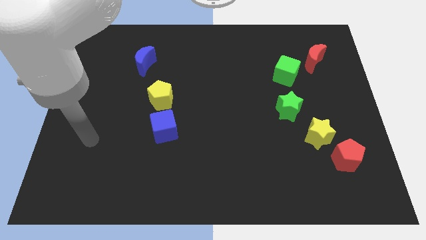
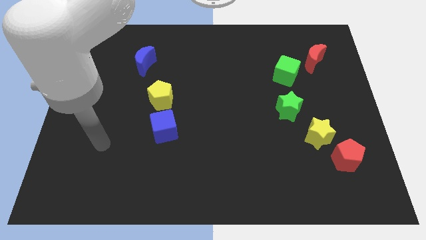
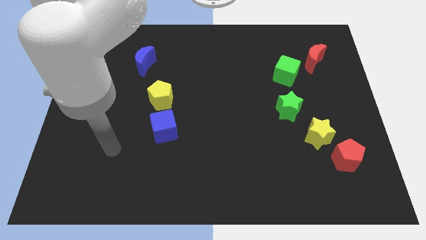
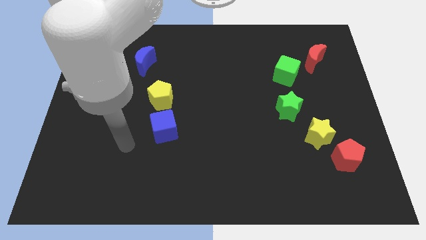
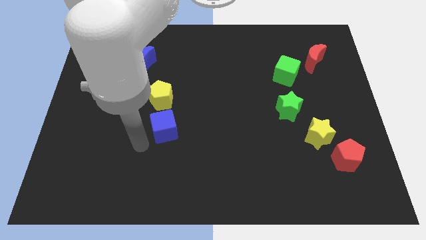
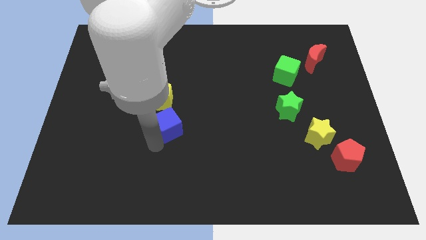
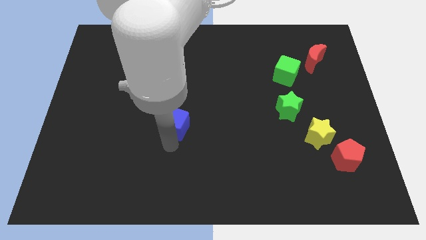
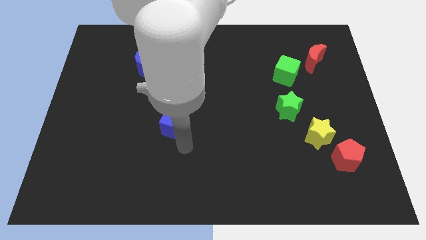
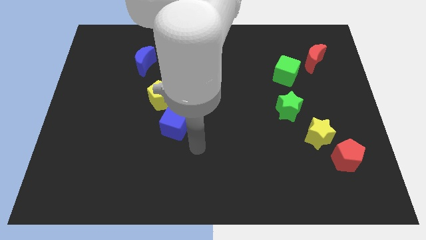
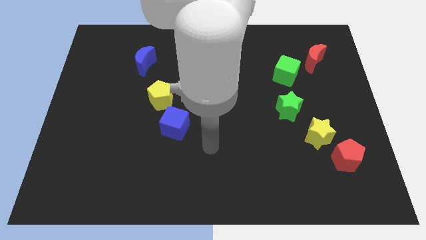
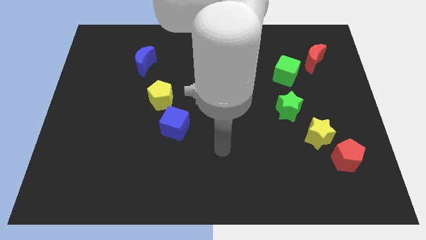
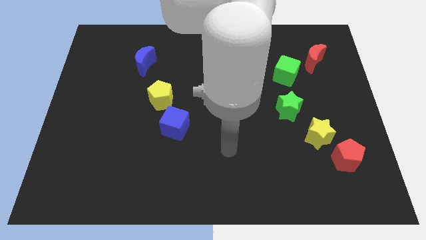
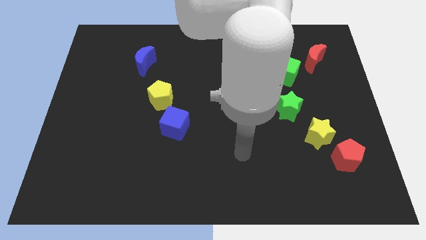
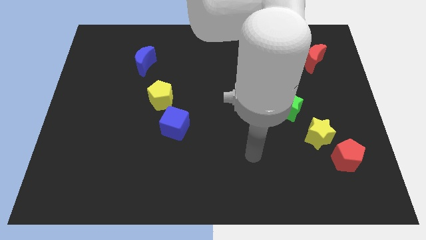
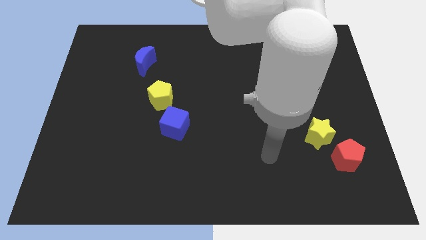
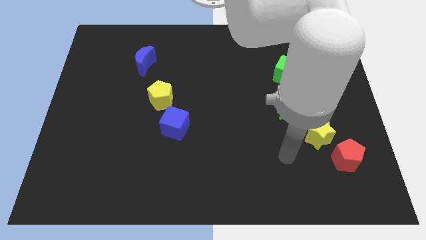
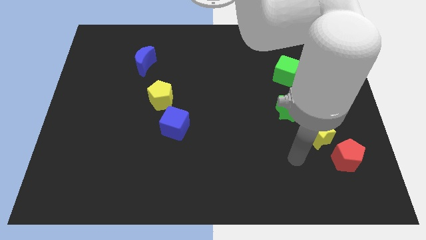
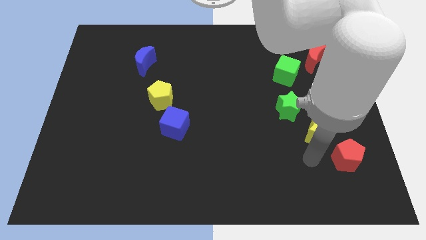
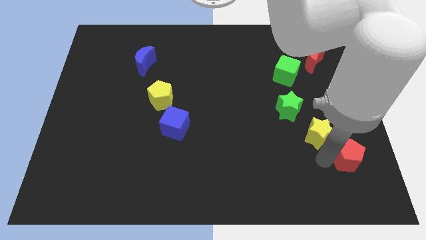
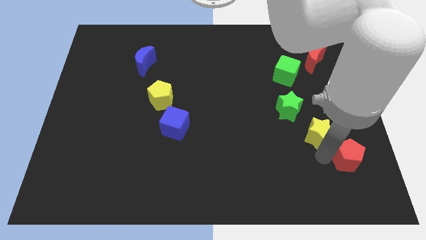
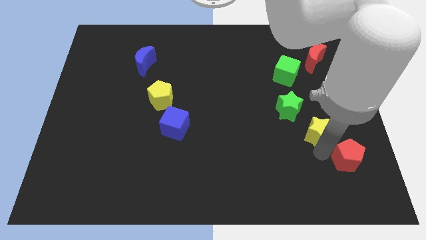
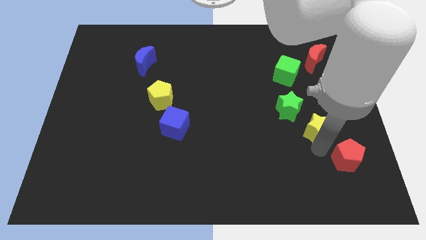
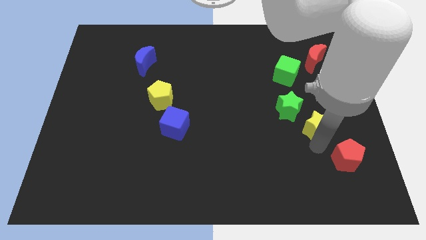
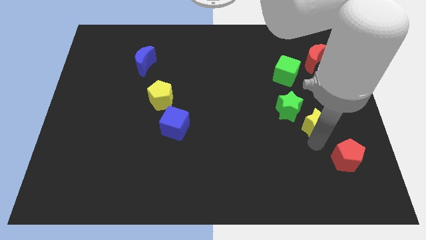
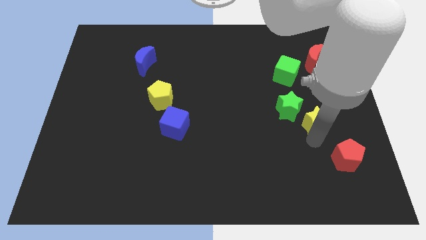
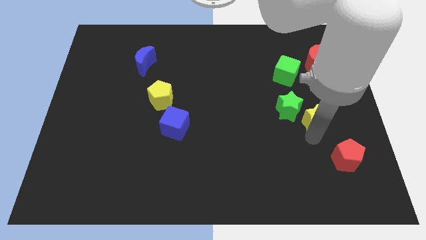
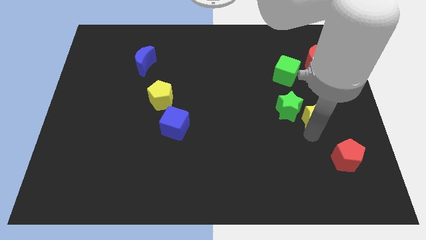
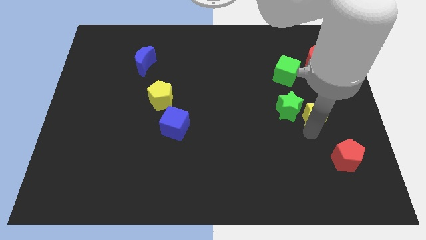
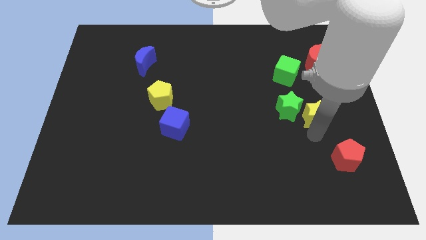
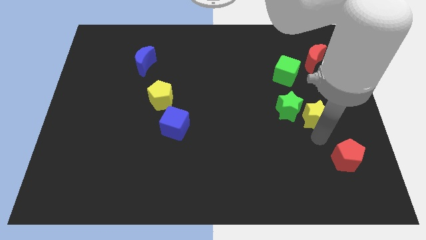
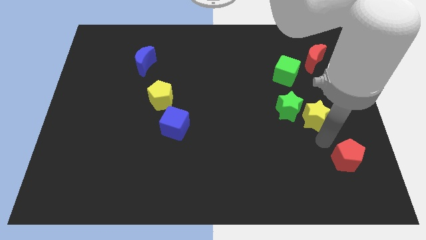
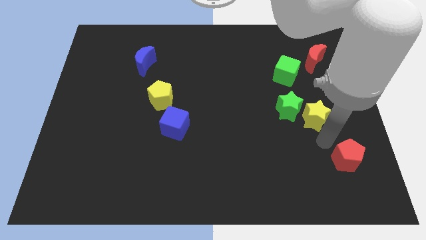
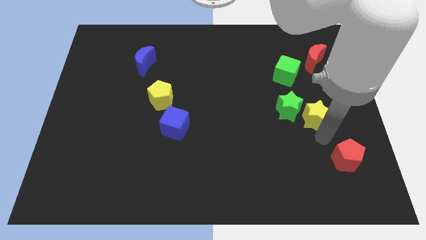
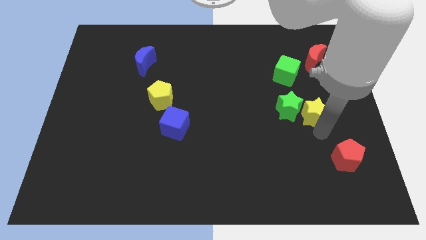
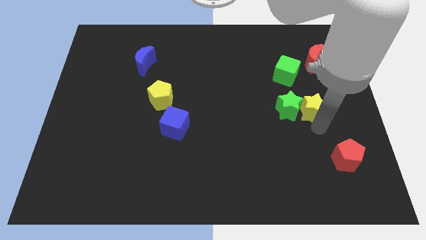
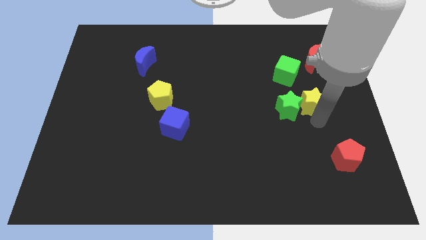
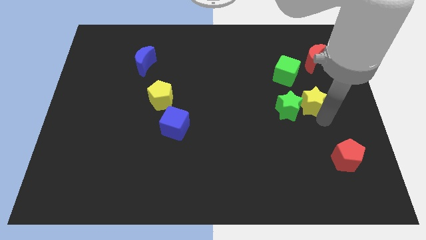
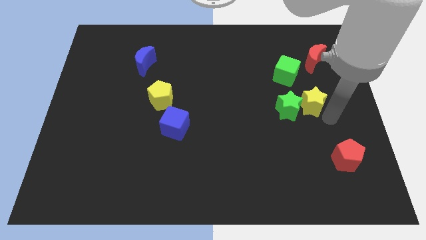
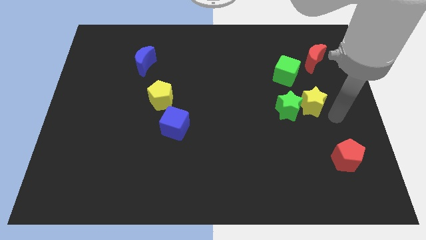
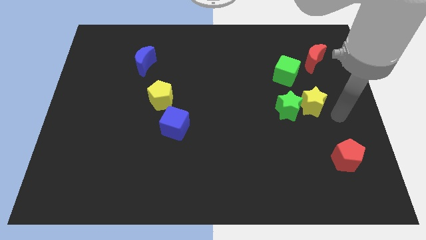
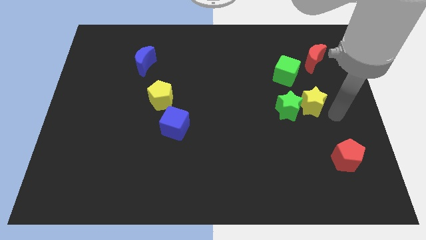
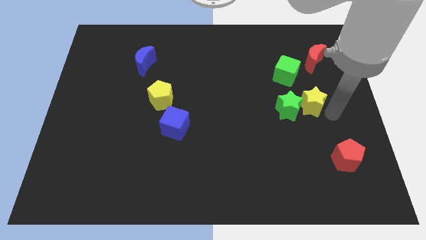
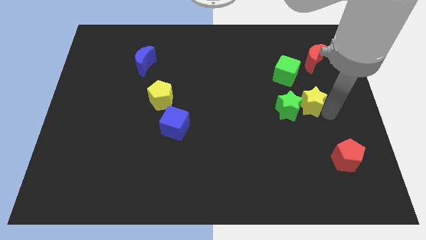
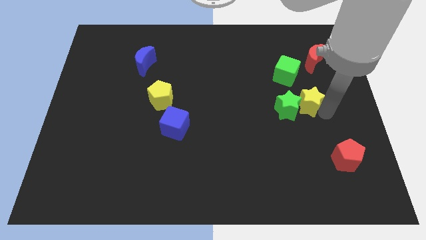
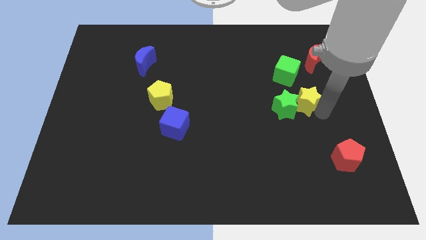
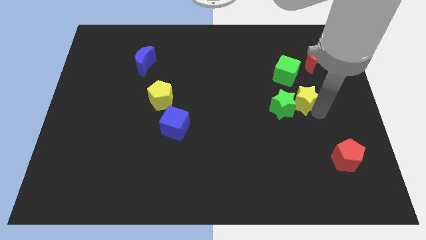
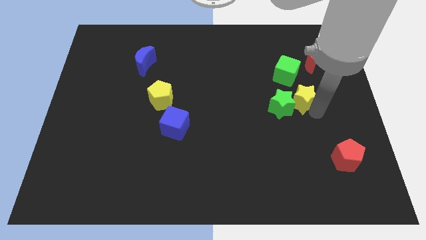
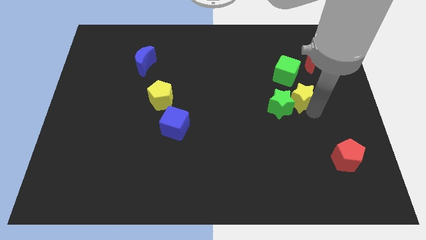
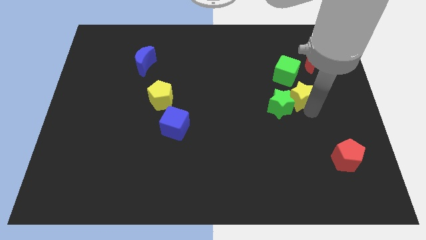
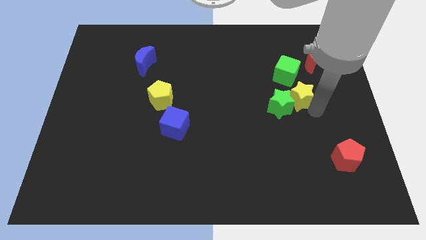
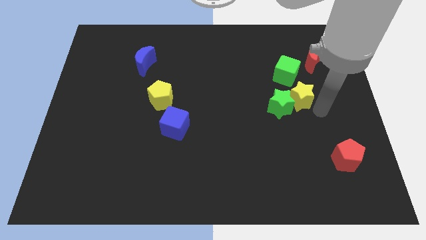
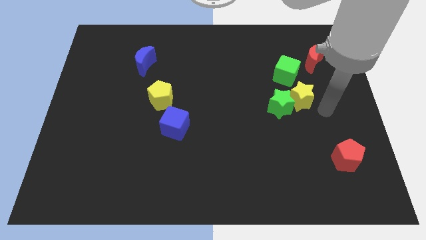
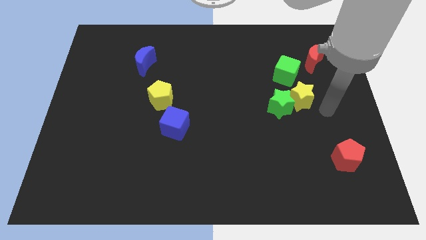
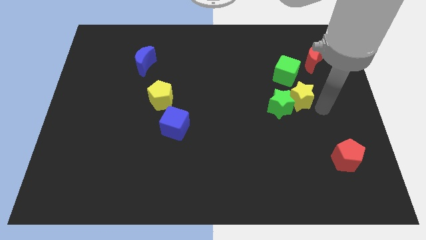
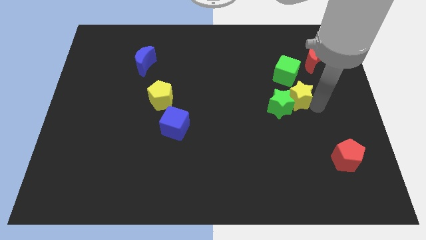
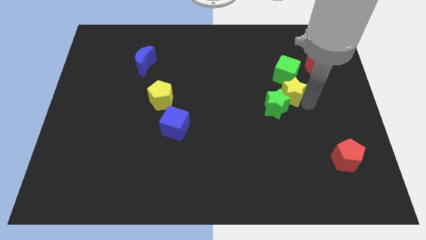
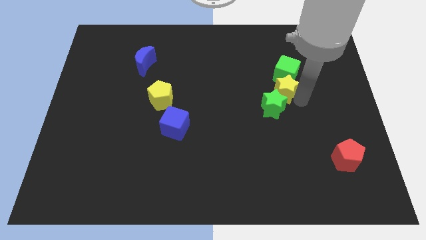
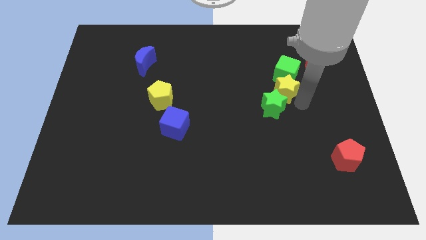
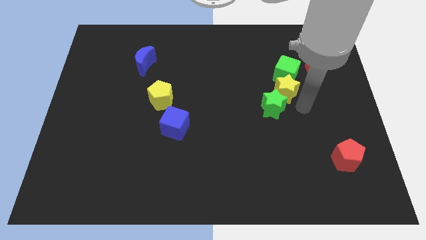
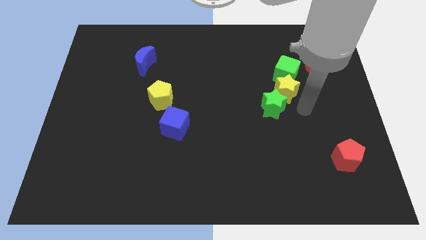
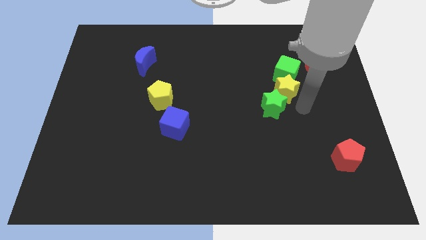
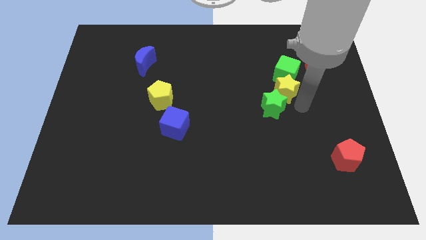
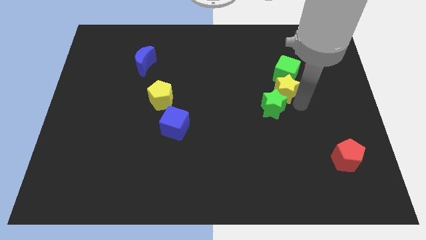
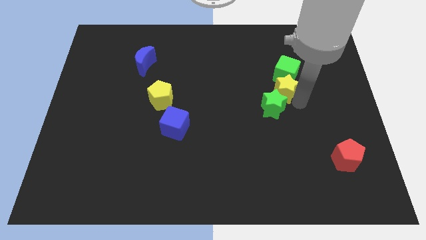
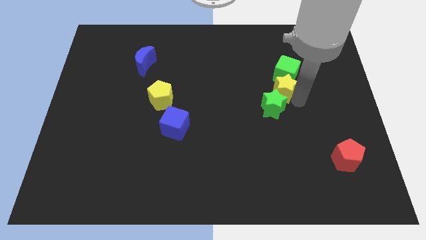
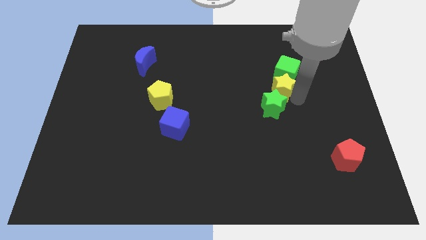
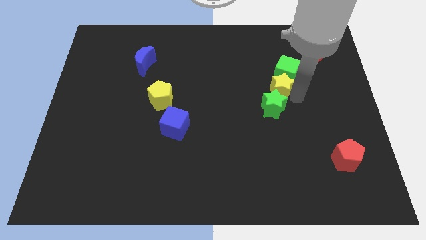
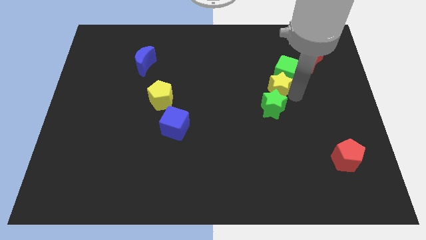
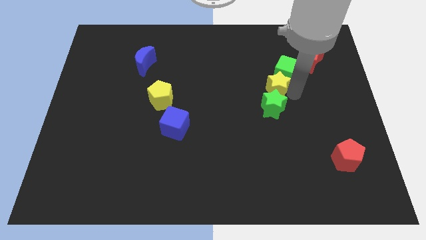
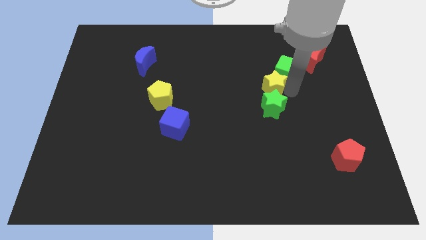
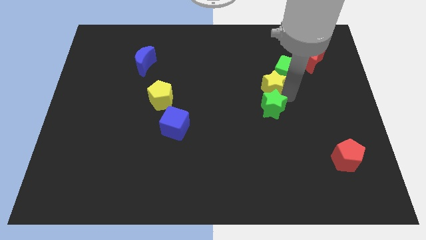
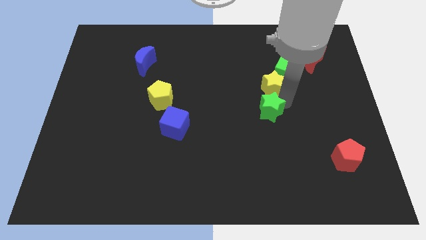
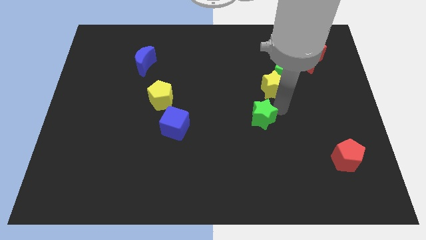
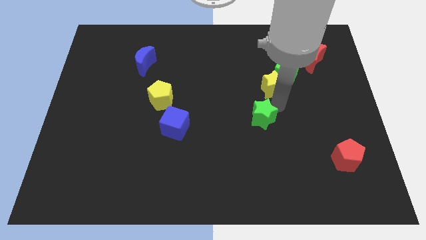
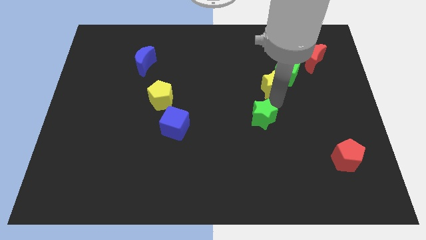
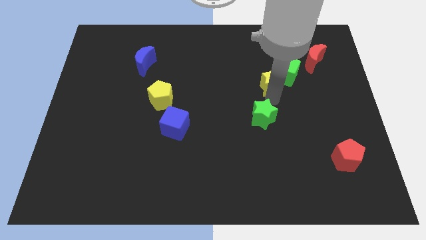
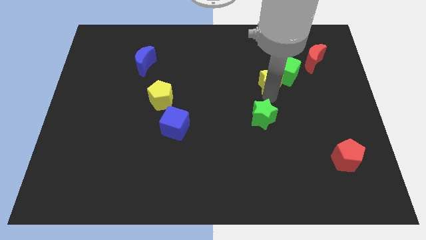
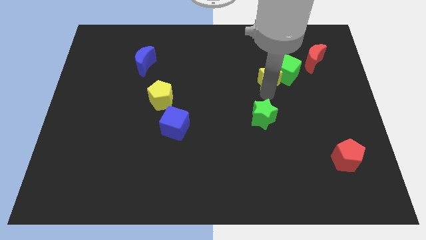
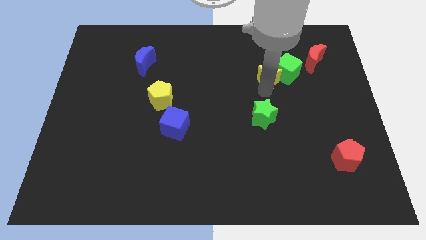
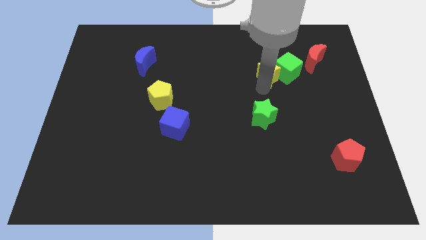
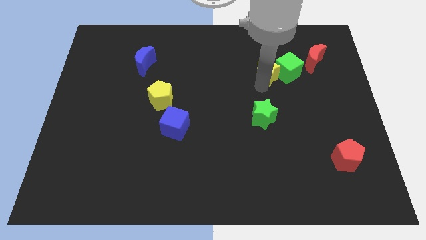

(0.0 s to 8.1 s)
push the yellow star to the top left side of the green cube
